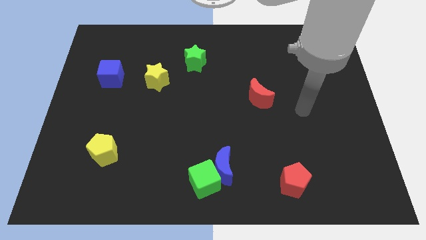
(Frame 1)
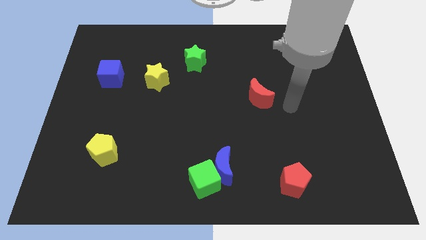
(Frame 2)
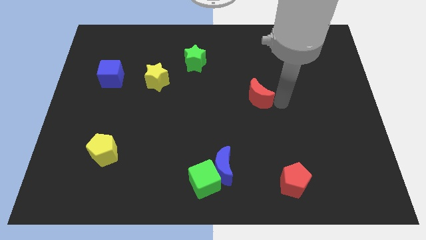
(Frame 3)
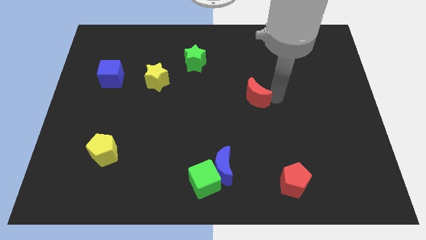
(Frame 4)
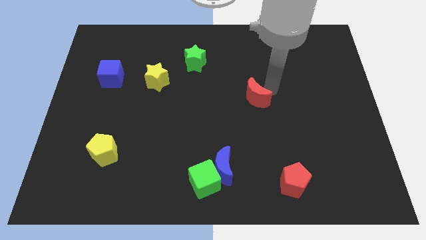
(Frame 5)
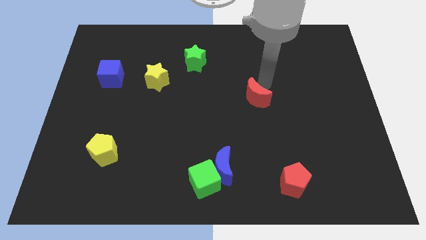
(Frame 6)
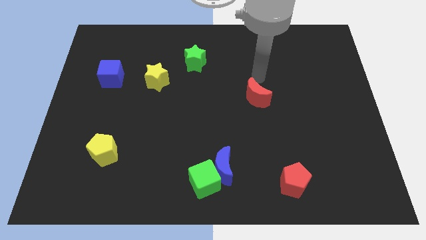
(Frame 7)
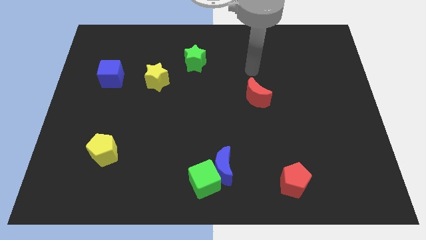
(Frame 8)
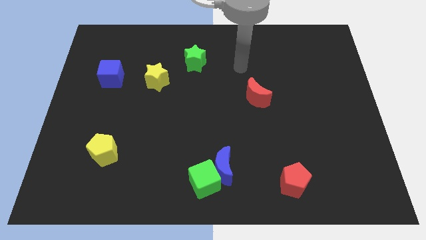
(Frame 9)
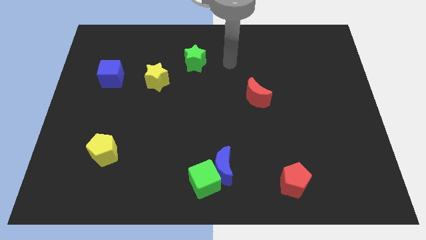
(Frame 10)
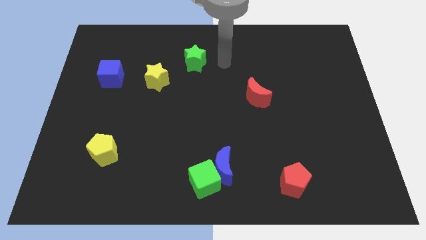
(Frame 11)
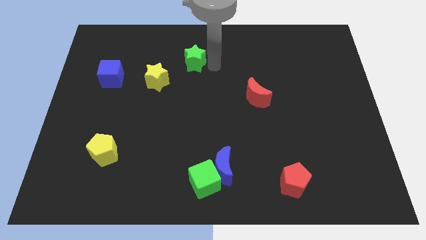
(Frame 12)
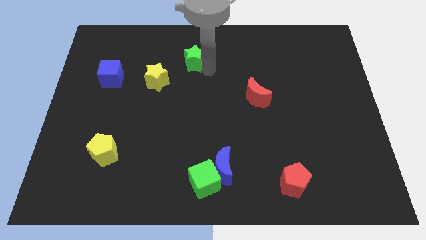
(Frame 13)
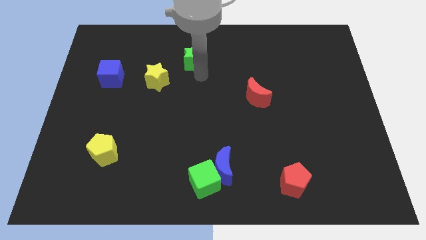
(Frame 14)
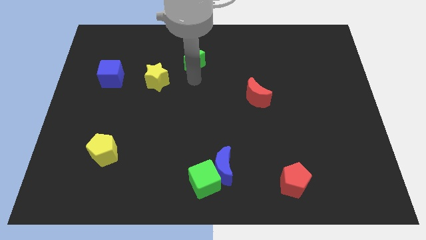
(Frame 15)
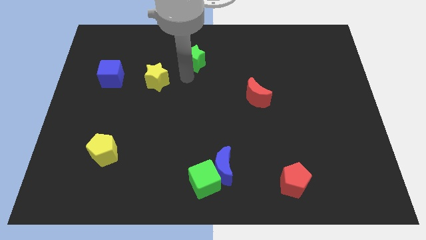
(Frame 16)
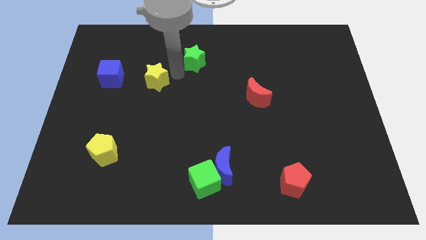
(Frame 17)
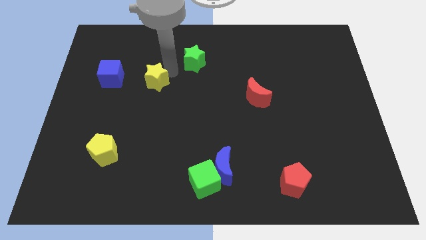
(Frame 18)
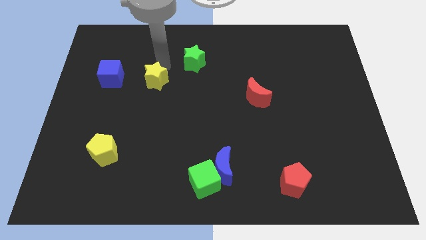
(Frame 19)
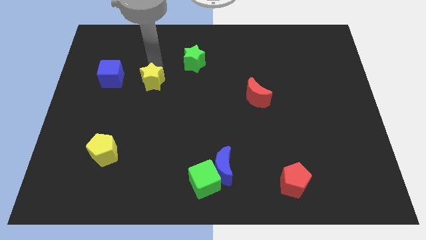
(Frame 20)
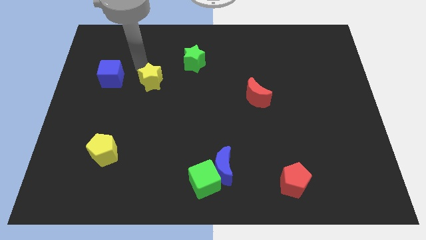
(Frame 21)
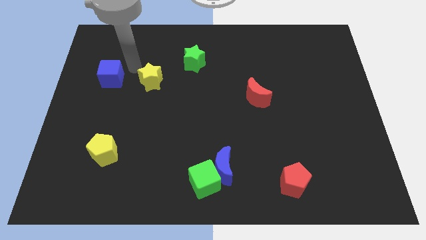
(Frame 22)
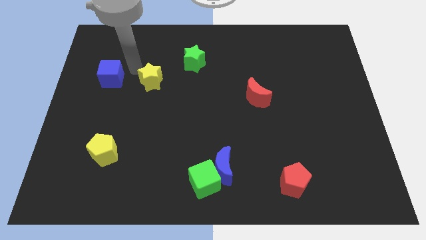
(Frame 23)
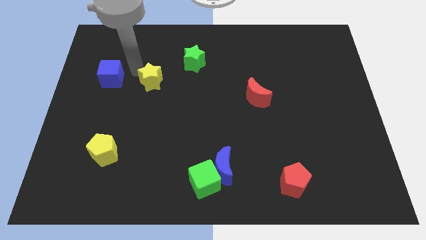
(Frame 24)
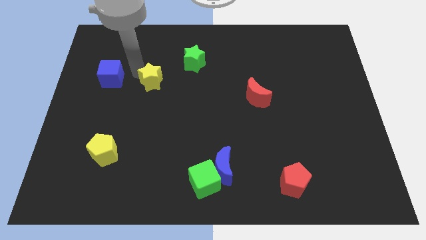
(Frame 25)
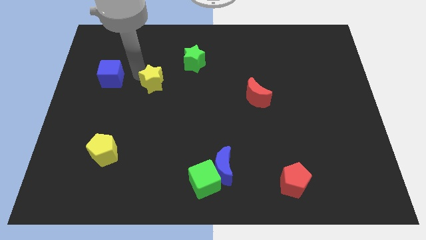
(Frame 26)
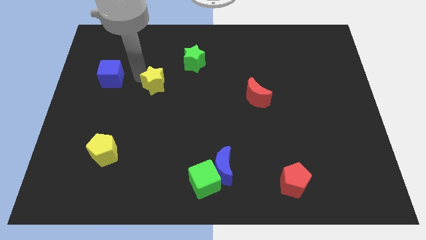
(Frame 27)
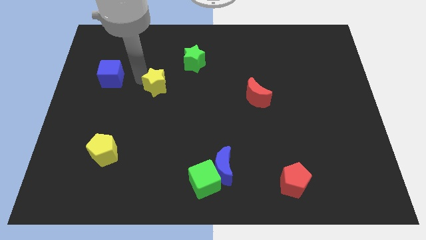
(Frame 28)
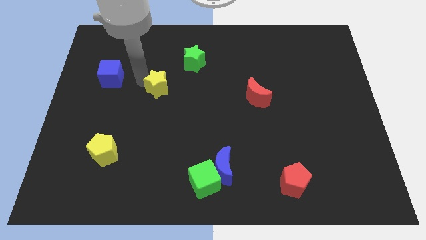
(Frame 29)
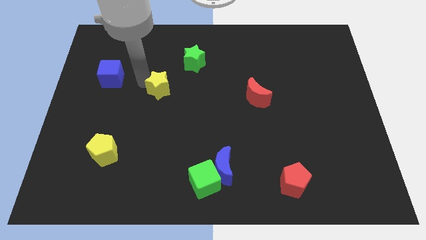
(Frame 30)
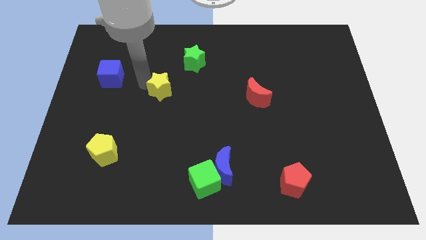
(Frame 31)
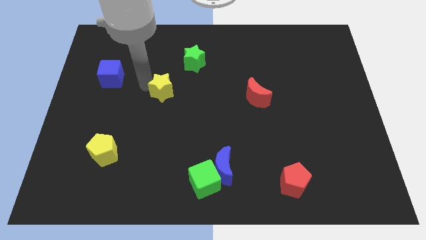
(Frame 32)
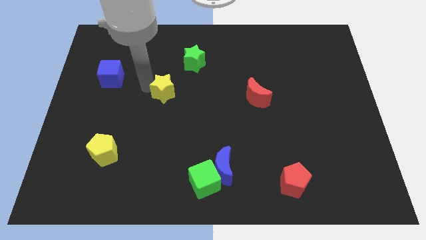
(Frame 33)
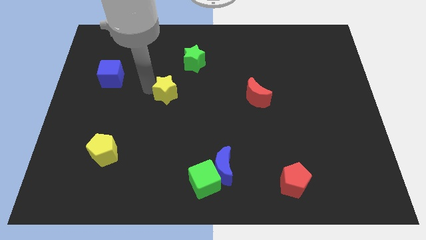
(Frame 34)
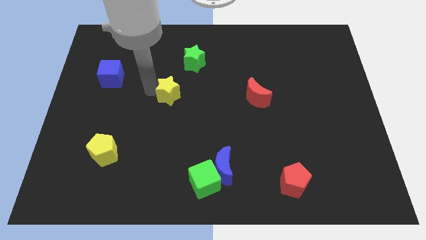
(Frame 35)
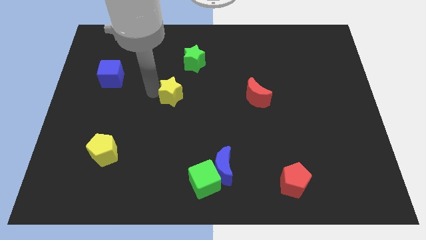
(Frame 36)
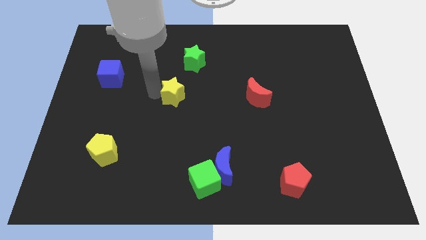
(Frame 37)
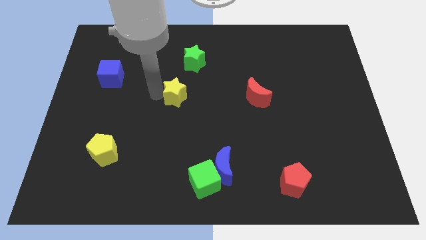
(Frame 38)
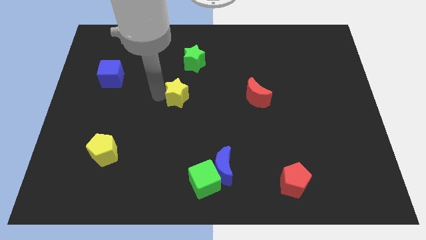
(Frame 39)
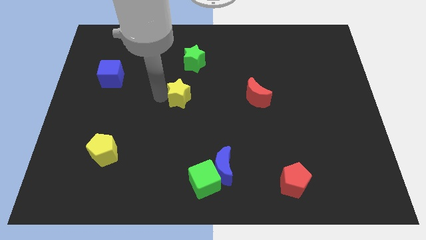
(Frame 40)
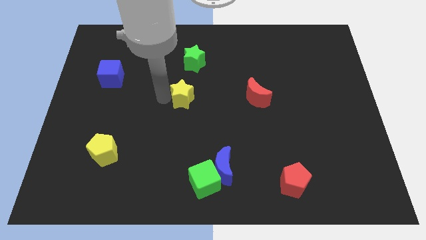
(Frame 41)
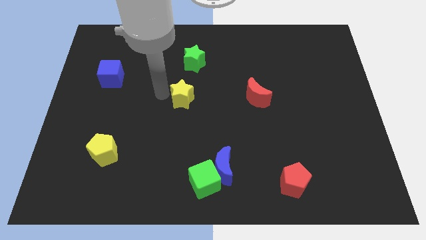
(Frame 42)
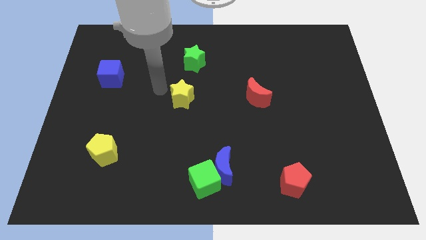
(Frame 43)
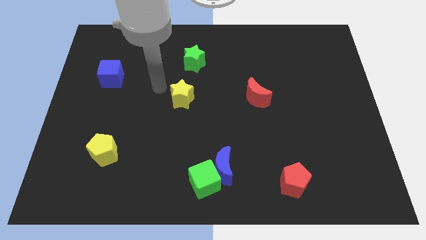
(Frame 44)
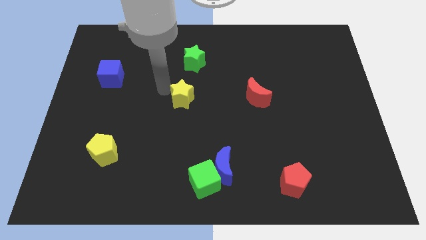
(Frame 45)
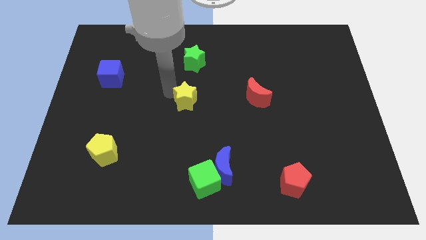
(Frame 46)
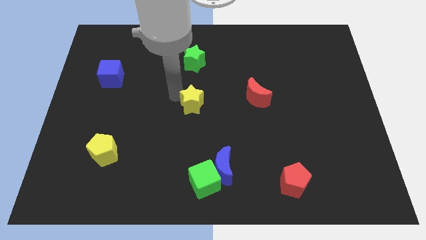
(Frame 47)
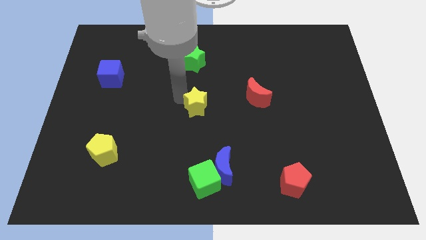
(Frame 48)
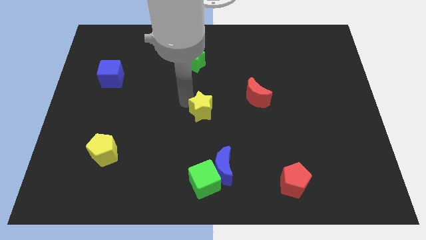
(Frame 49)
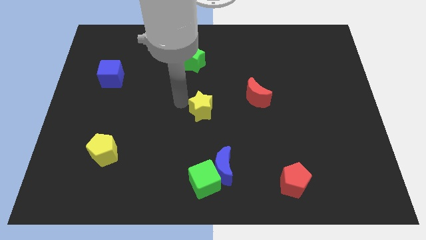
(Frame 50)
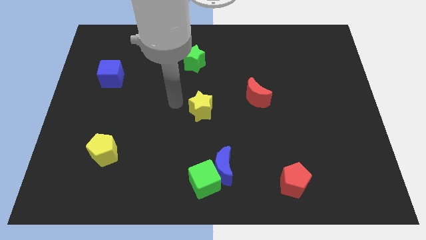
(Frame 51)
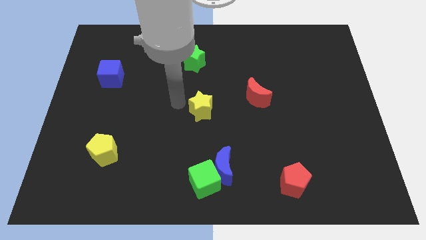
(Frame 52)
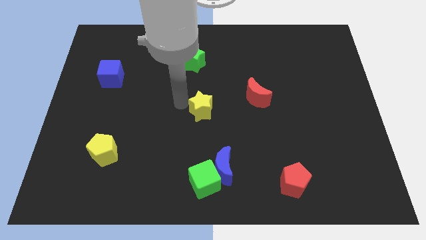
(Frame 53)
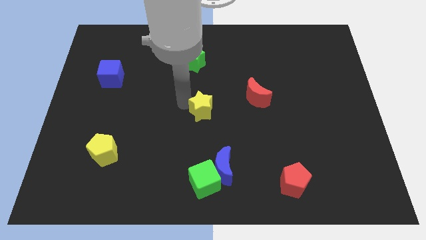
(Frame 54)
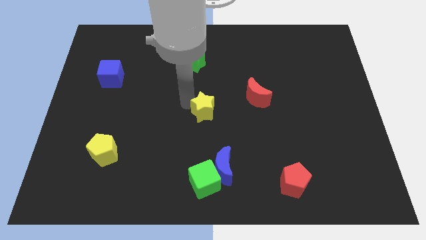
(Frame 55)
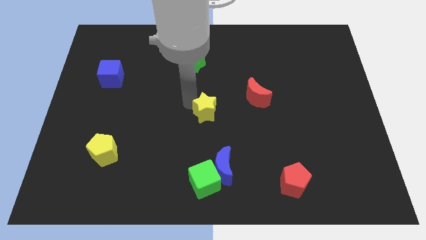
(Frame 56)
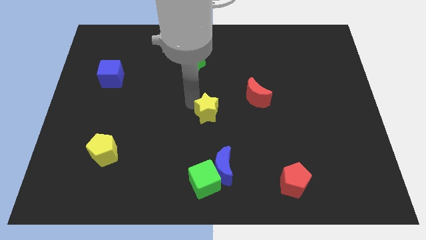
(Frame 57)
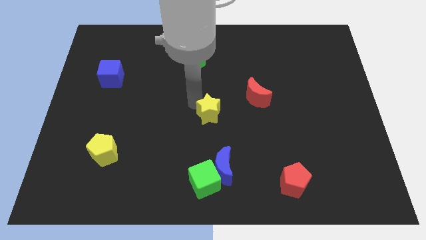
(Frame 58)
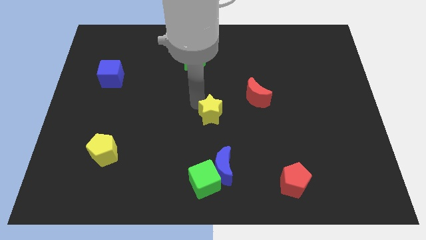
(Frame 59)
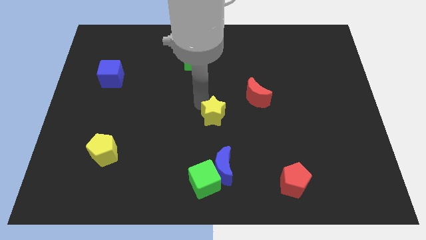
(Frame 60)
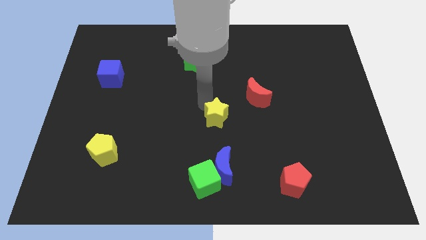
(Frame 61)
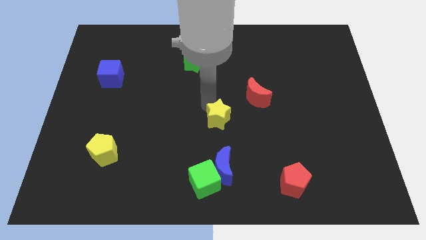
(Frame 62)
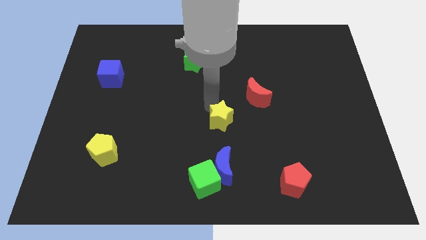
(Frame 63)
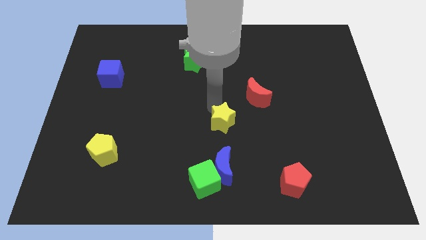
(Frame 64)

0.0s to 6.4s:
push the yellow star diagonally downwards and right

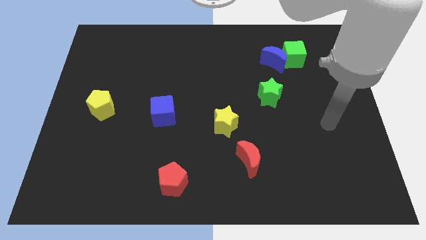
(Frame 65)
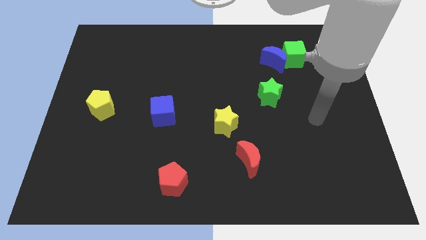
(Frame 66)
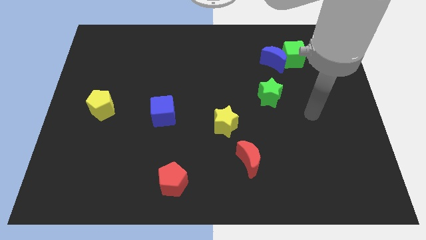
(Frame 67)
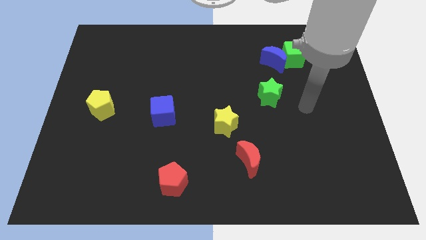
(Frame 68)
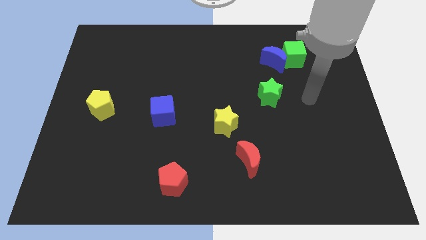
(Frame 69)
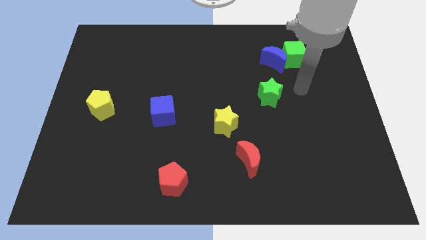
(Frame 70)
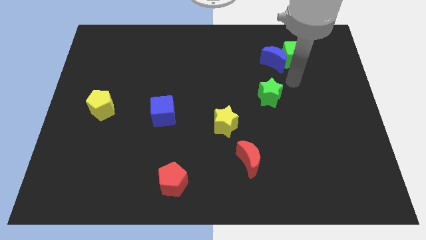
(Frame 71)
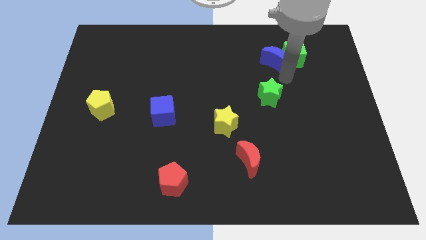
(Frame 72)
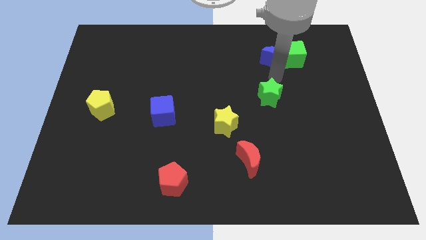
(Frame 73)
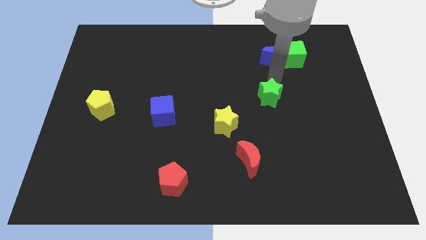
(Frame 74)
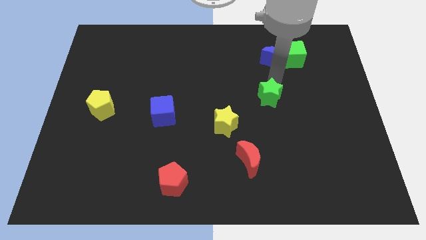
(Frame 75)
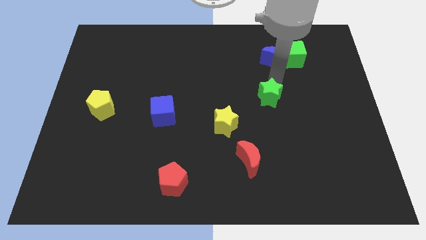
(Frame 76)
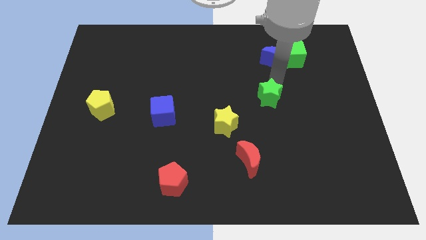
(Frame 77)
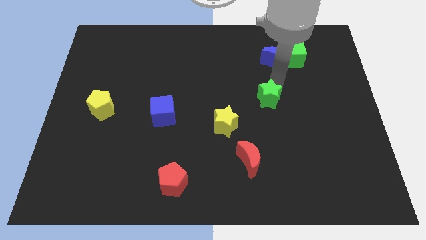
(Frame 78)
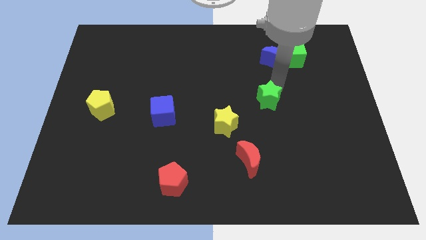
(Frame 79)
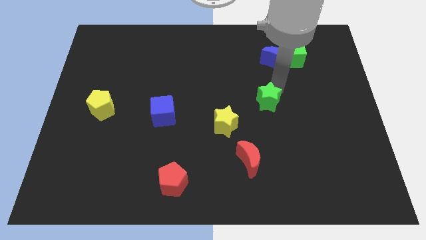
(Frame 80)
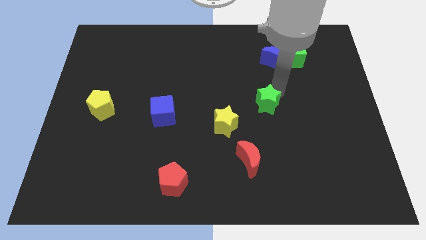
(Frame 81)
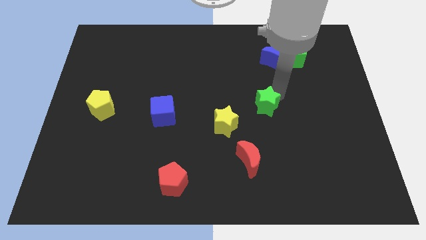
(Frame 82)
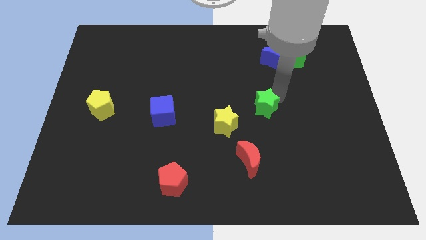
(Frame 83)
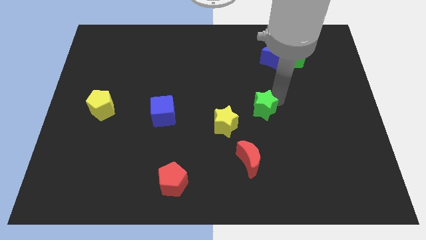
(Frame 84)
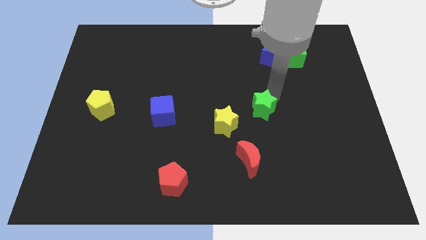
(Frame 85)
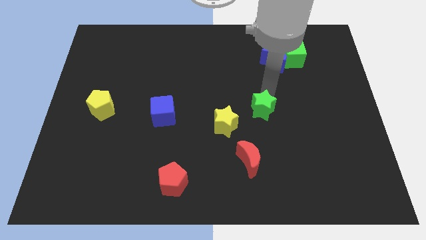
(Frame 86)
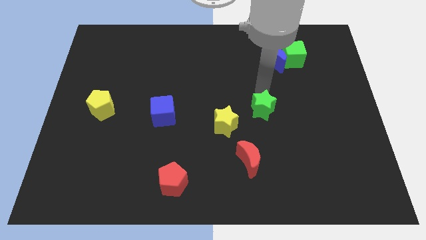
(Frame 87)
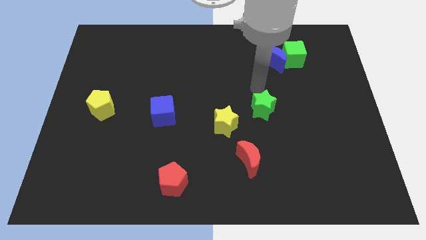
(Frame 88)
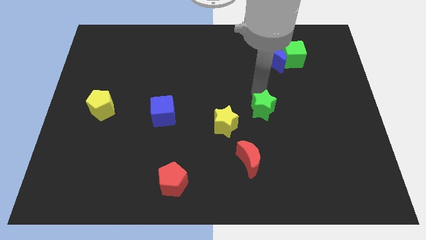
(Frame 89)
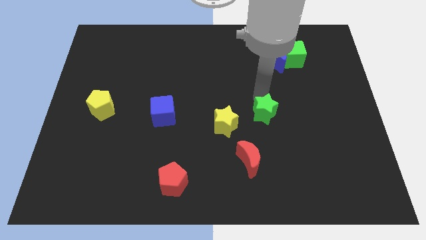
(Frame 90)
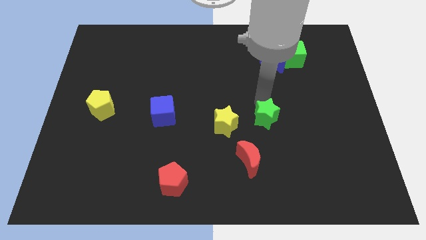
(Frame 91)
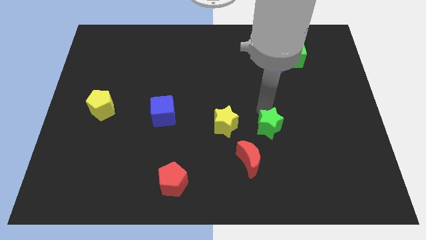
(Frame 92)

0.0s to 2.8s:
slightly move the green star down
